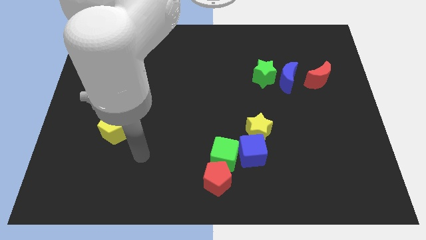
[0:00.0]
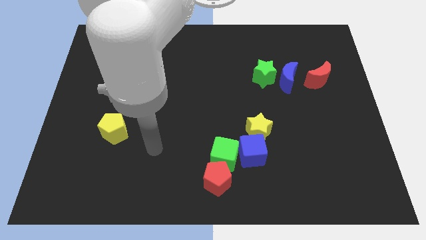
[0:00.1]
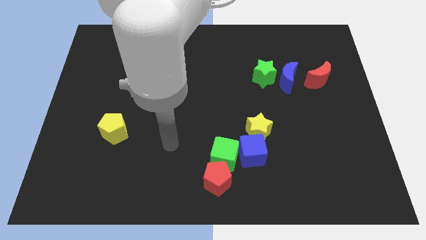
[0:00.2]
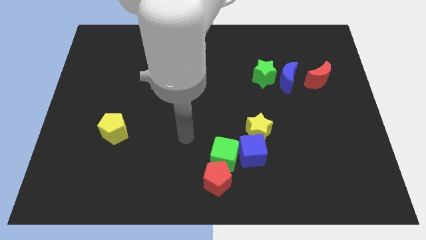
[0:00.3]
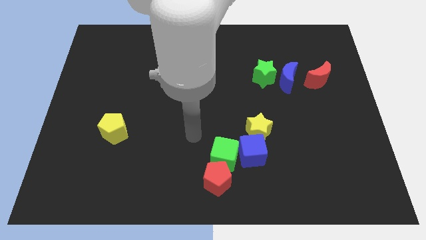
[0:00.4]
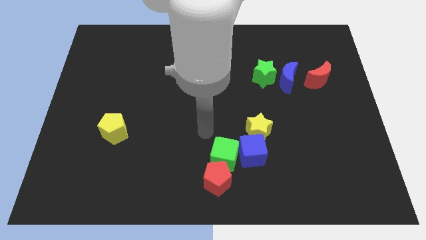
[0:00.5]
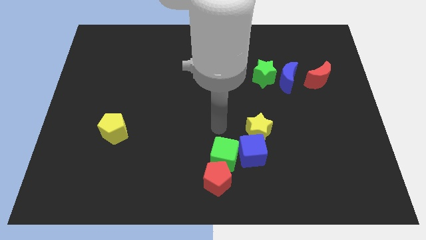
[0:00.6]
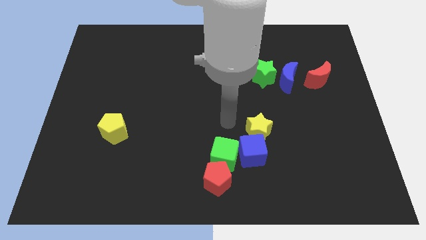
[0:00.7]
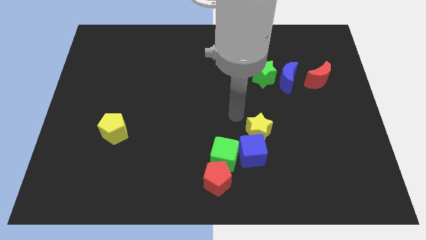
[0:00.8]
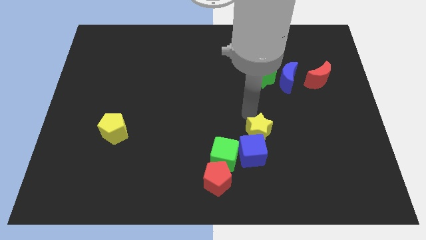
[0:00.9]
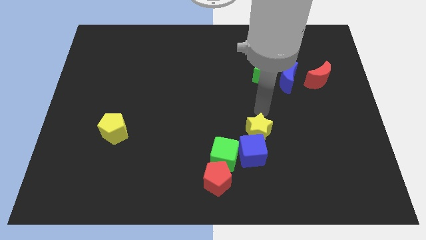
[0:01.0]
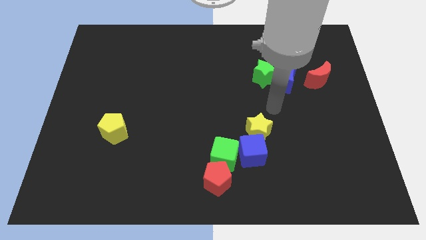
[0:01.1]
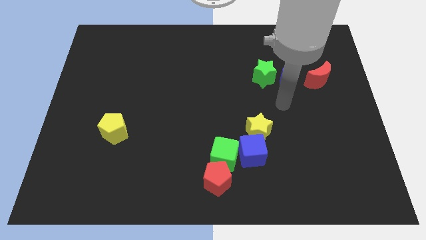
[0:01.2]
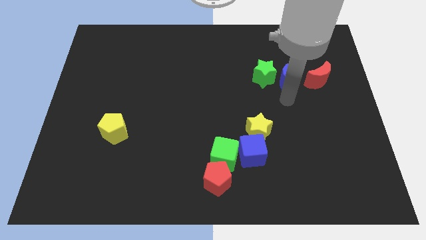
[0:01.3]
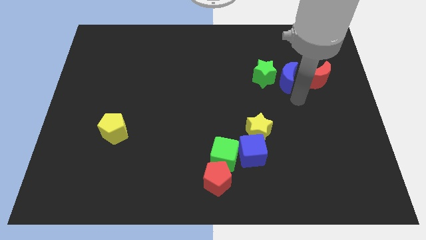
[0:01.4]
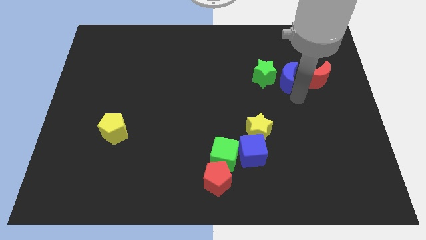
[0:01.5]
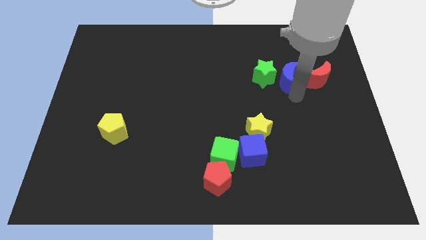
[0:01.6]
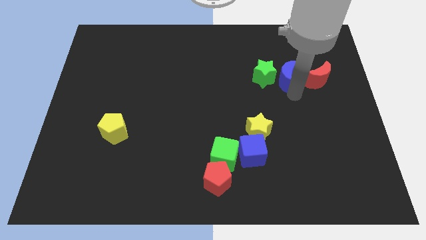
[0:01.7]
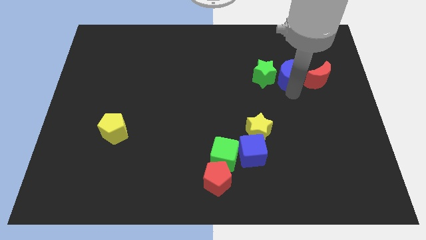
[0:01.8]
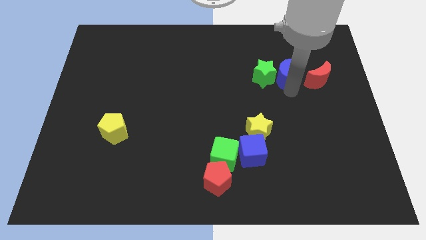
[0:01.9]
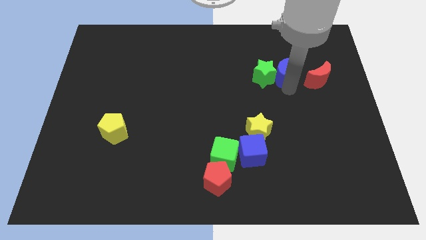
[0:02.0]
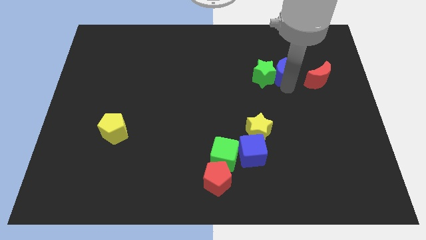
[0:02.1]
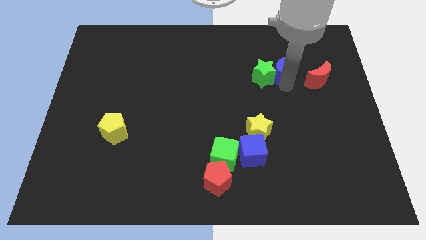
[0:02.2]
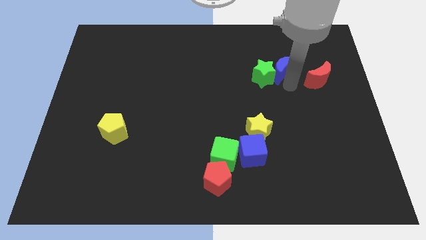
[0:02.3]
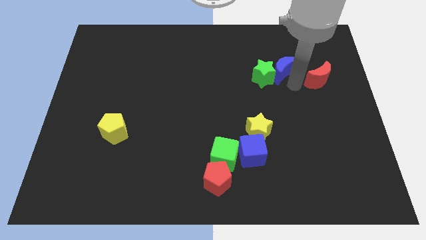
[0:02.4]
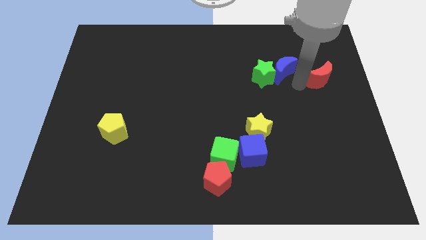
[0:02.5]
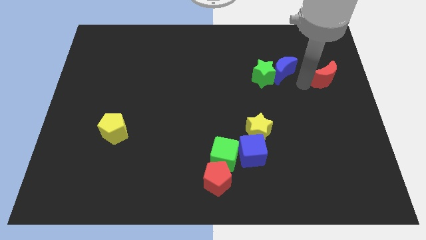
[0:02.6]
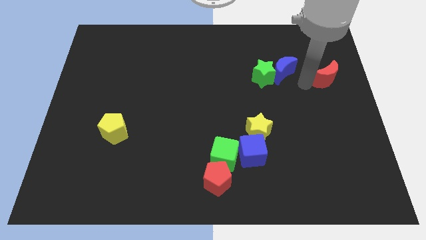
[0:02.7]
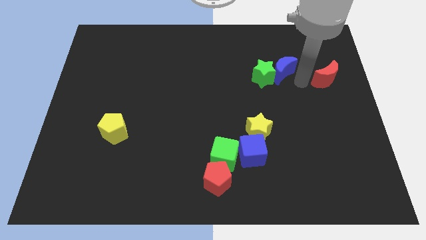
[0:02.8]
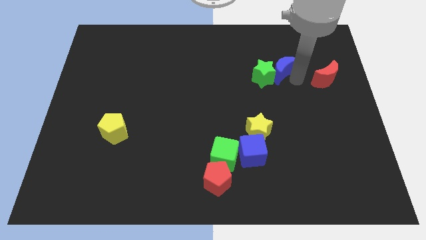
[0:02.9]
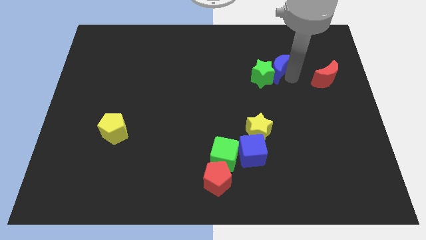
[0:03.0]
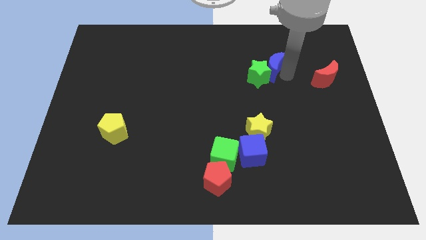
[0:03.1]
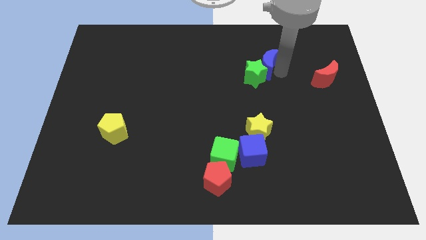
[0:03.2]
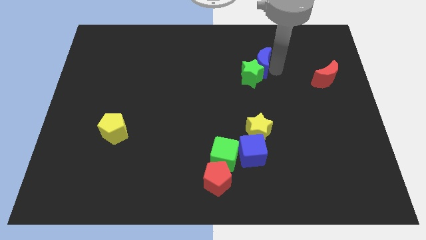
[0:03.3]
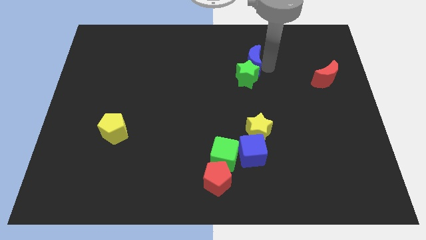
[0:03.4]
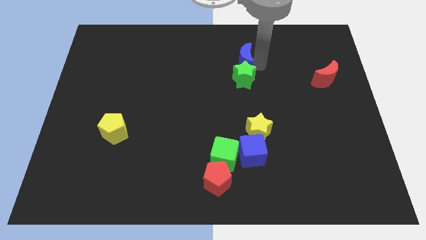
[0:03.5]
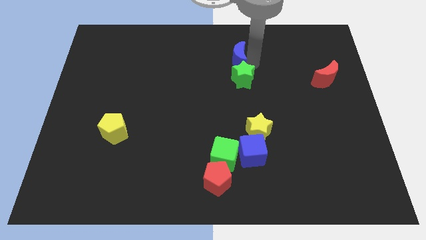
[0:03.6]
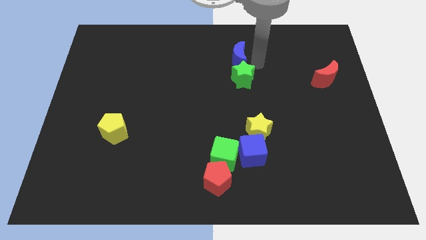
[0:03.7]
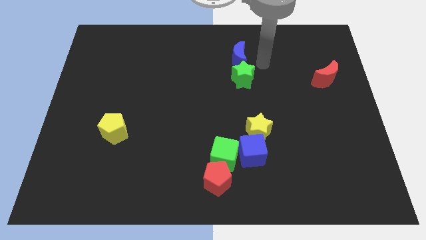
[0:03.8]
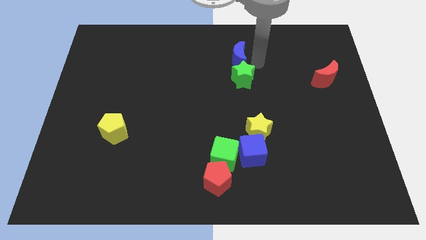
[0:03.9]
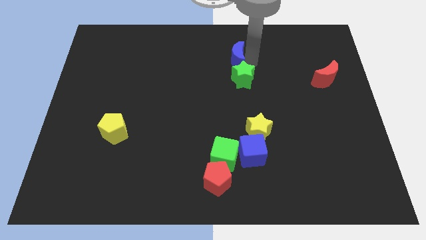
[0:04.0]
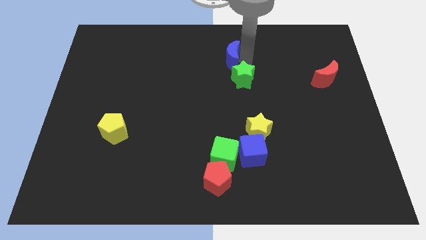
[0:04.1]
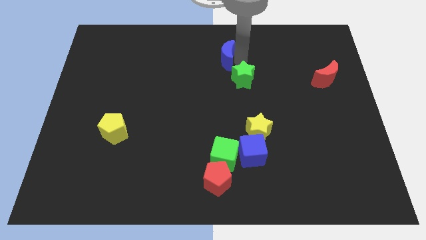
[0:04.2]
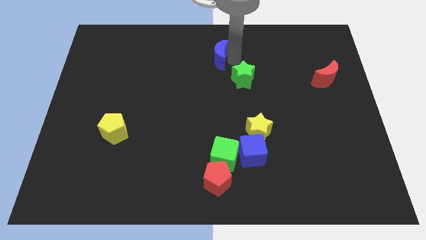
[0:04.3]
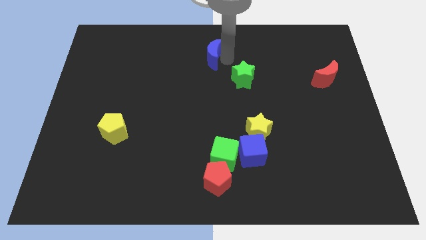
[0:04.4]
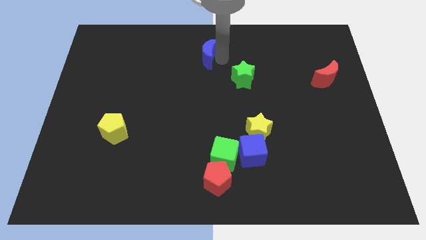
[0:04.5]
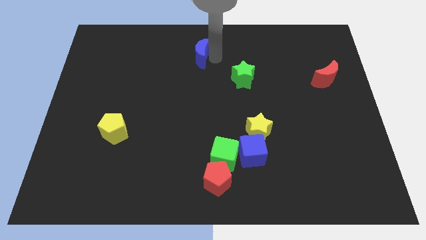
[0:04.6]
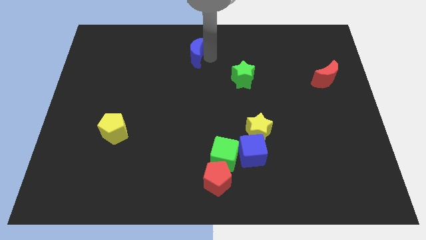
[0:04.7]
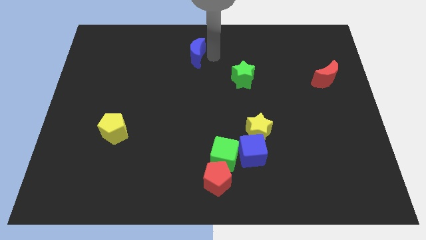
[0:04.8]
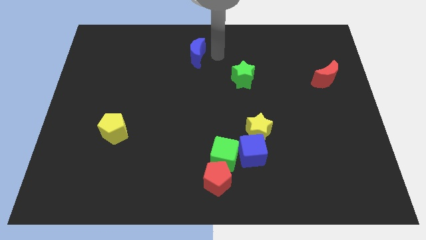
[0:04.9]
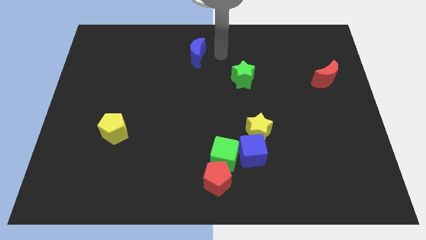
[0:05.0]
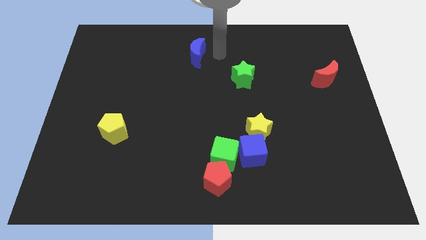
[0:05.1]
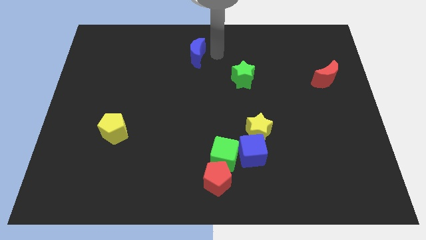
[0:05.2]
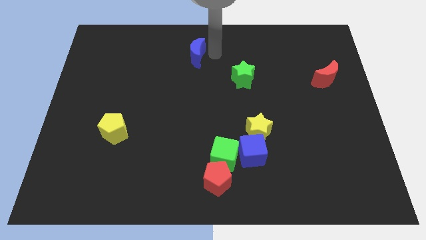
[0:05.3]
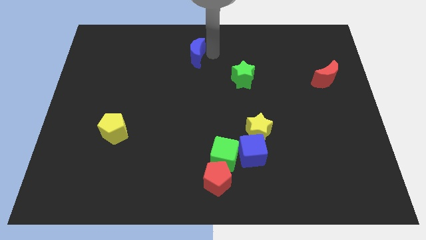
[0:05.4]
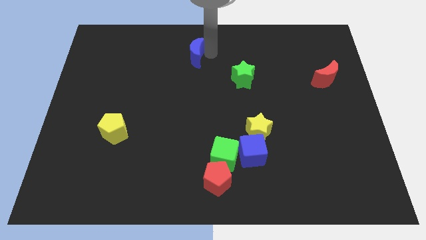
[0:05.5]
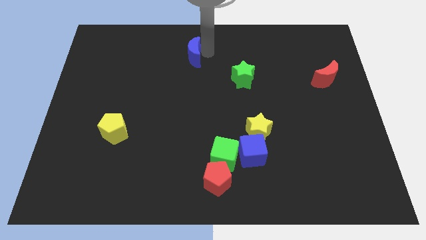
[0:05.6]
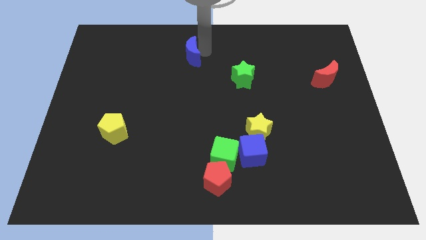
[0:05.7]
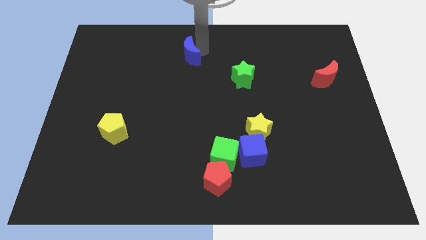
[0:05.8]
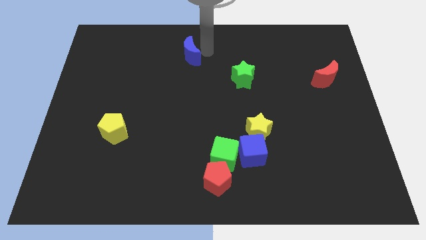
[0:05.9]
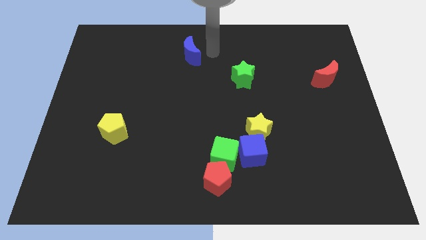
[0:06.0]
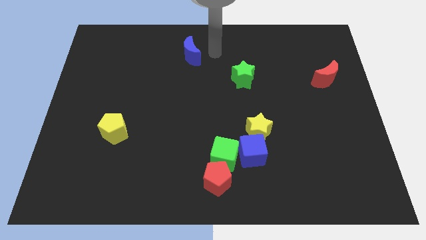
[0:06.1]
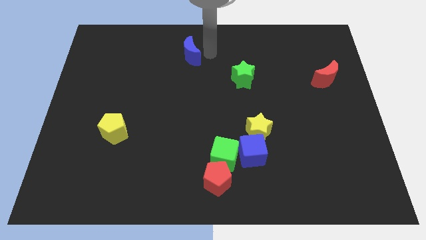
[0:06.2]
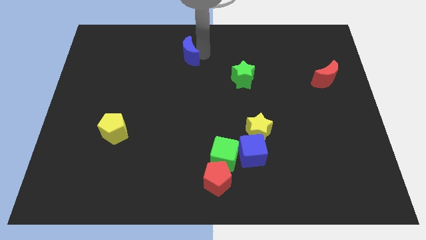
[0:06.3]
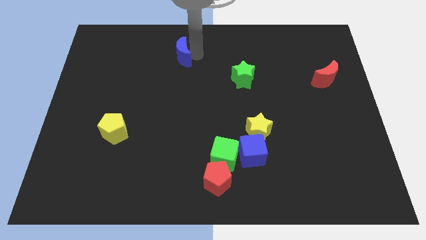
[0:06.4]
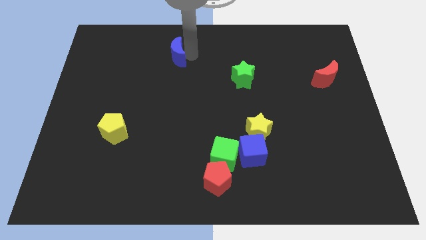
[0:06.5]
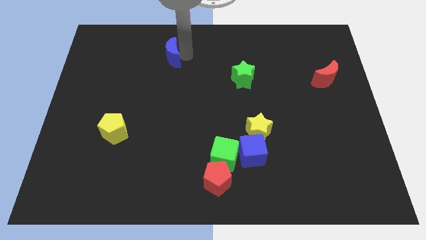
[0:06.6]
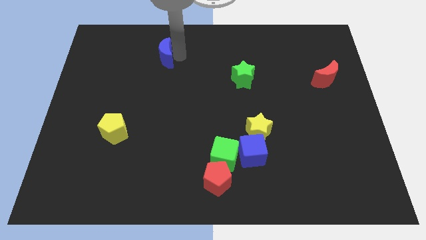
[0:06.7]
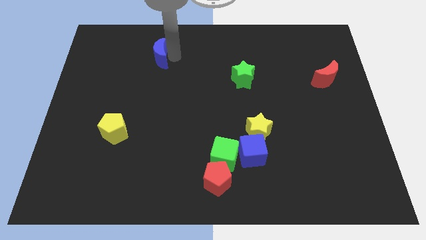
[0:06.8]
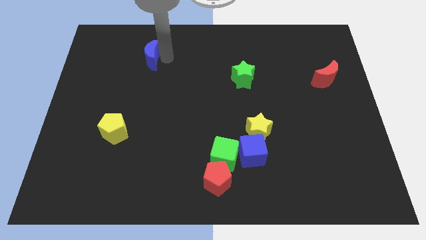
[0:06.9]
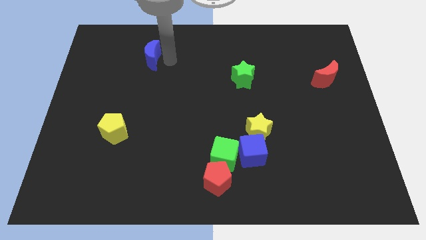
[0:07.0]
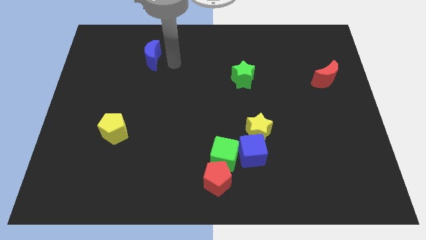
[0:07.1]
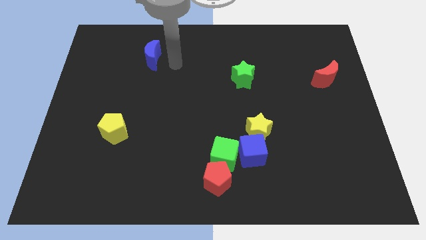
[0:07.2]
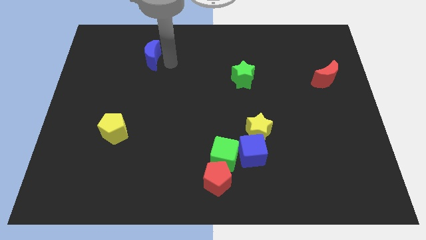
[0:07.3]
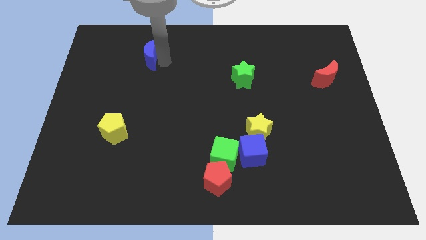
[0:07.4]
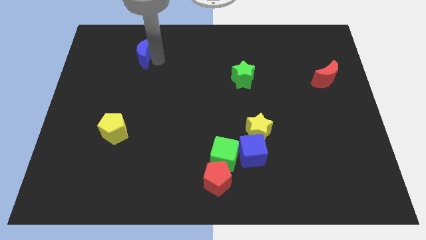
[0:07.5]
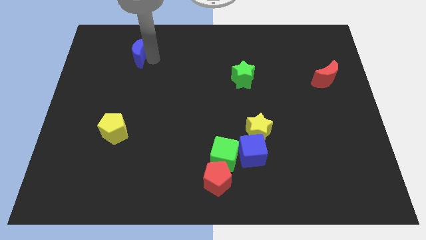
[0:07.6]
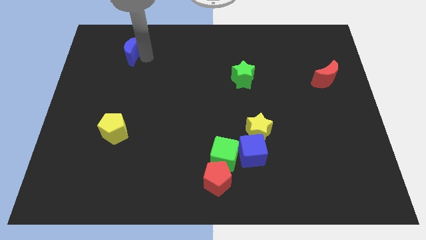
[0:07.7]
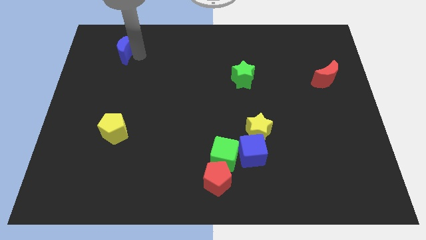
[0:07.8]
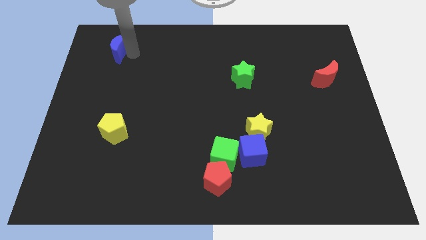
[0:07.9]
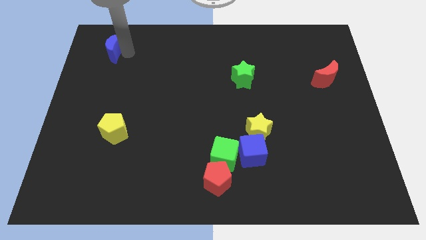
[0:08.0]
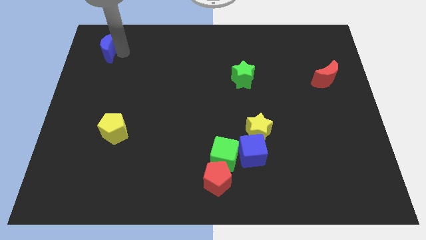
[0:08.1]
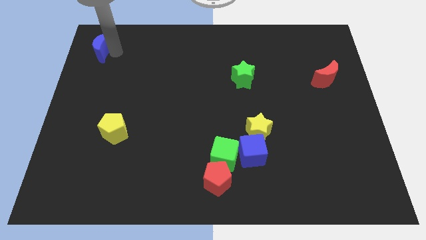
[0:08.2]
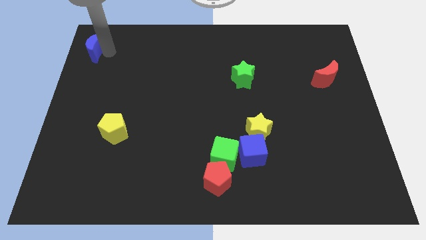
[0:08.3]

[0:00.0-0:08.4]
put the blue moon to the top left of the board
